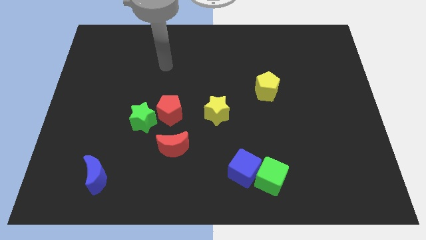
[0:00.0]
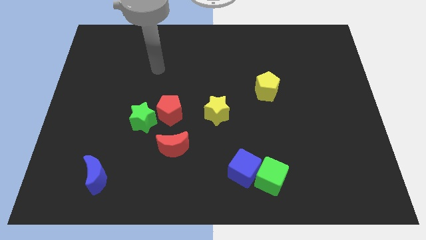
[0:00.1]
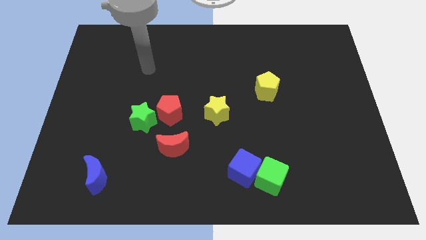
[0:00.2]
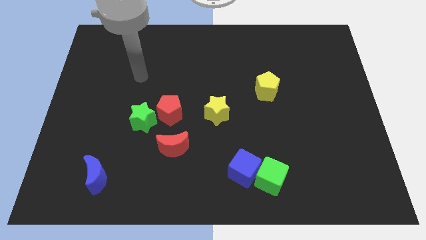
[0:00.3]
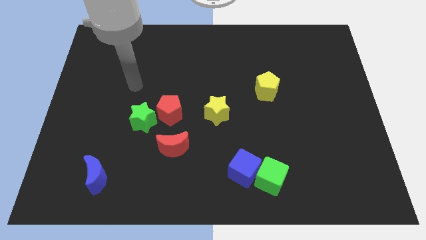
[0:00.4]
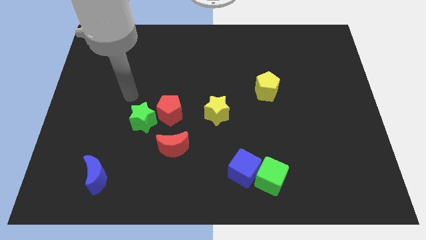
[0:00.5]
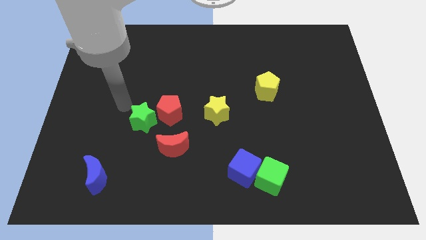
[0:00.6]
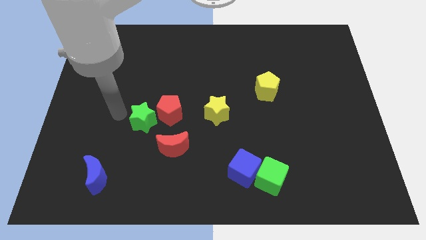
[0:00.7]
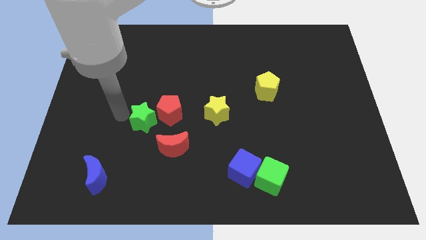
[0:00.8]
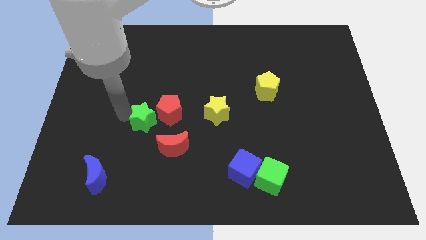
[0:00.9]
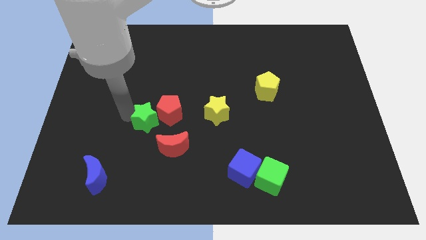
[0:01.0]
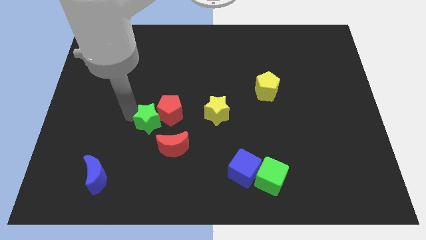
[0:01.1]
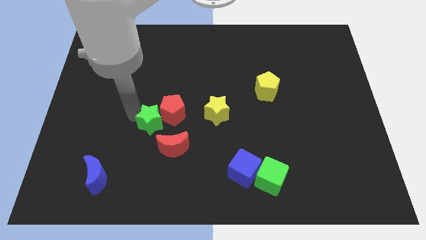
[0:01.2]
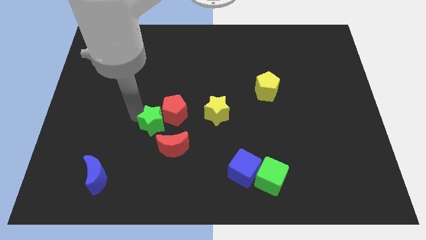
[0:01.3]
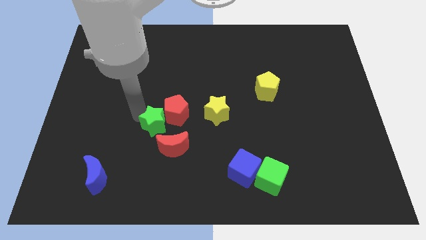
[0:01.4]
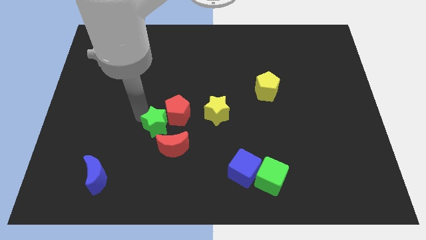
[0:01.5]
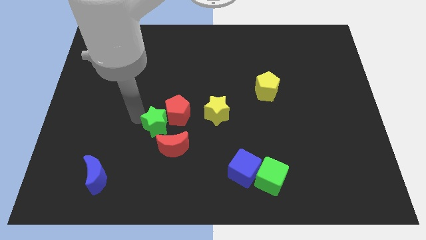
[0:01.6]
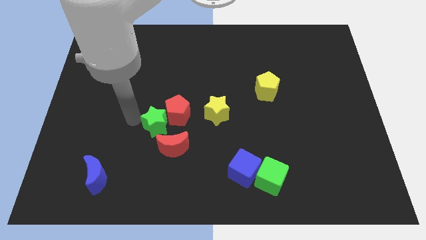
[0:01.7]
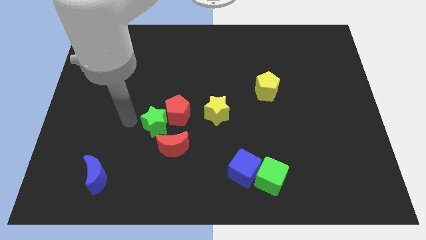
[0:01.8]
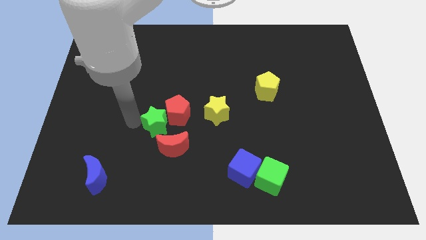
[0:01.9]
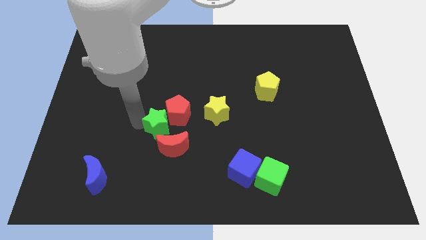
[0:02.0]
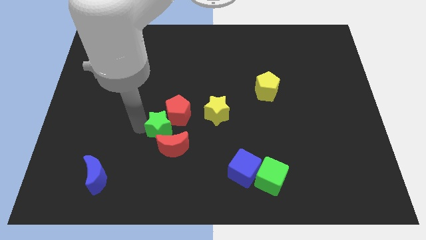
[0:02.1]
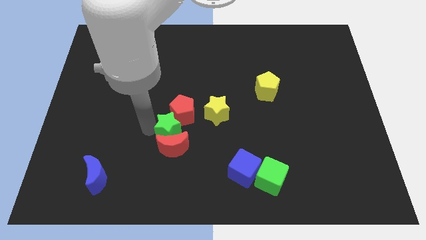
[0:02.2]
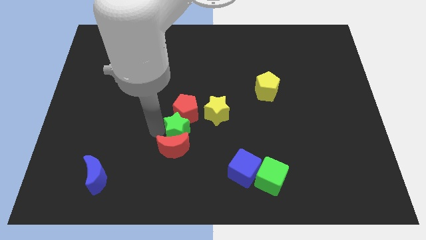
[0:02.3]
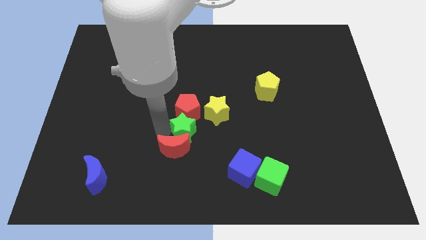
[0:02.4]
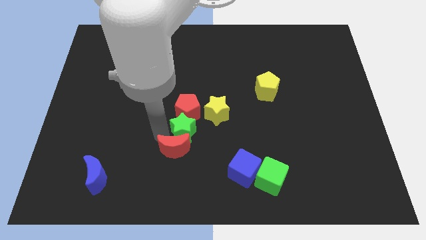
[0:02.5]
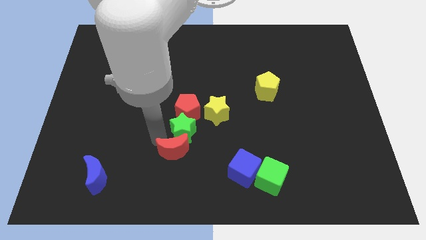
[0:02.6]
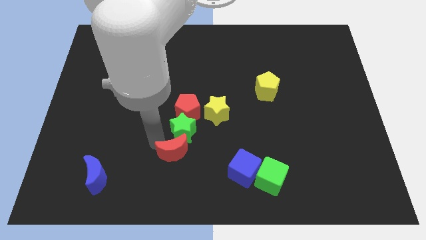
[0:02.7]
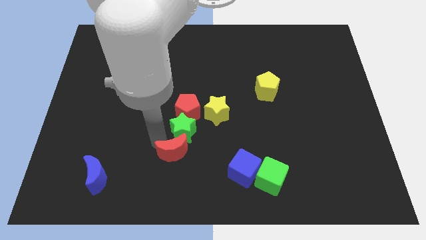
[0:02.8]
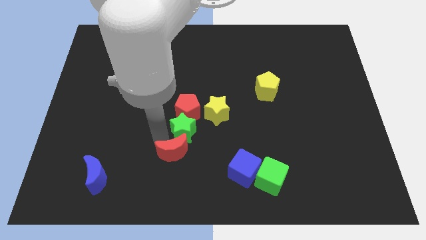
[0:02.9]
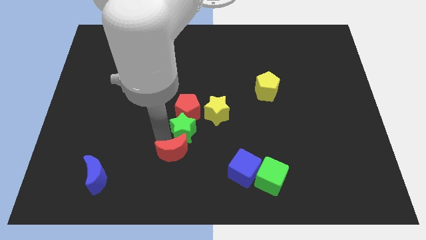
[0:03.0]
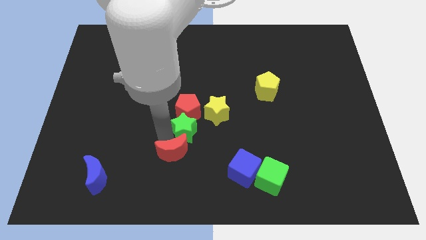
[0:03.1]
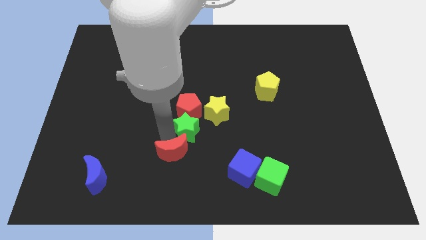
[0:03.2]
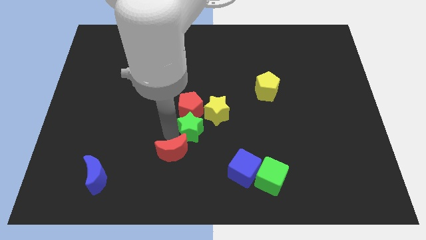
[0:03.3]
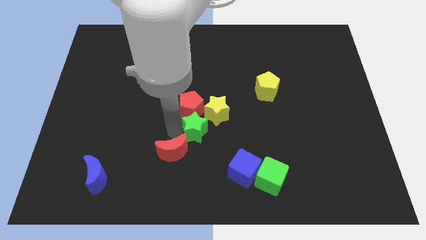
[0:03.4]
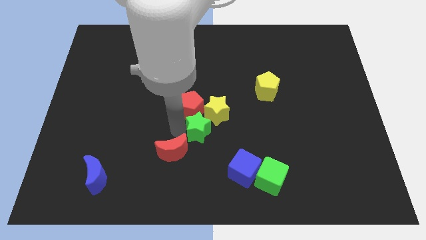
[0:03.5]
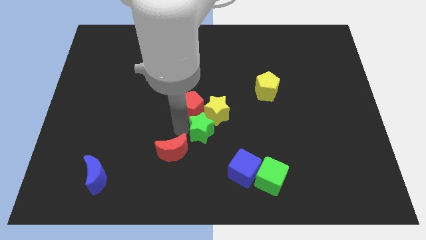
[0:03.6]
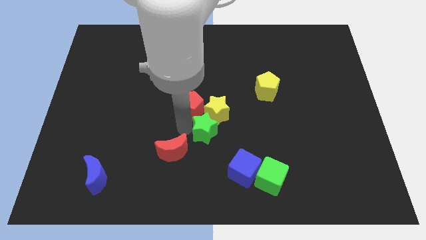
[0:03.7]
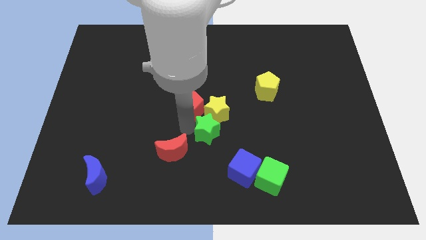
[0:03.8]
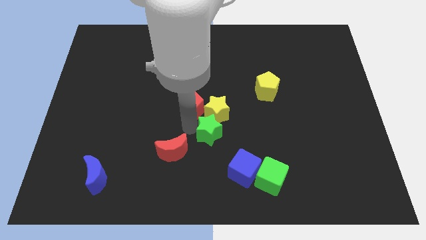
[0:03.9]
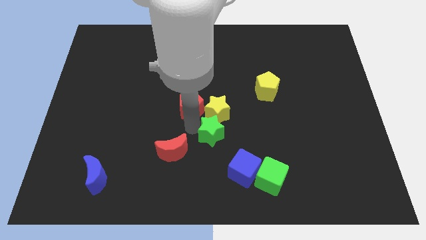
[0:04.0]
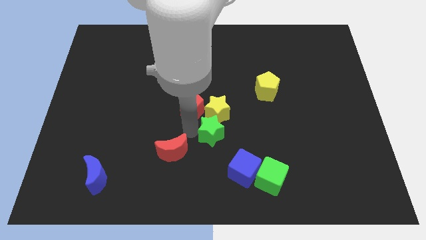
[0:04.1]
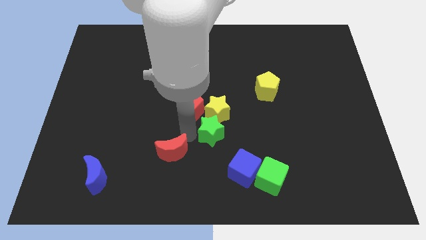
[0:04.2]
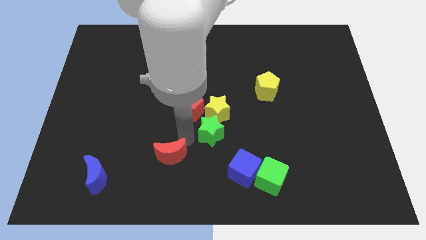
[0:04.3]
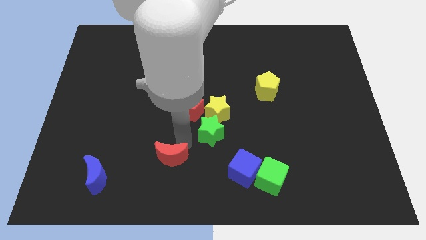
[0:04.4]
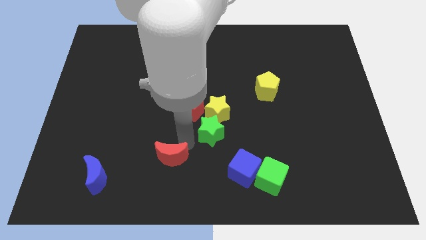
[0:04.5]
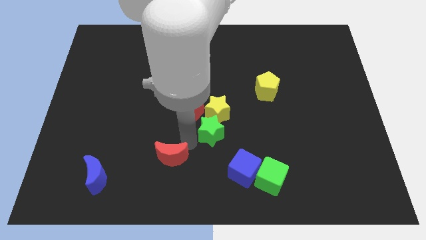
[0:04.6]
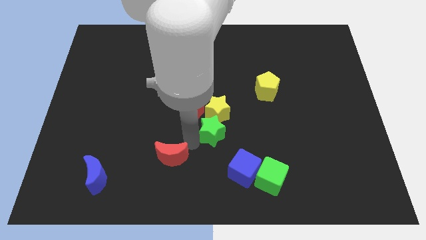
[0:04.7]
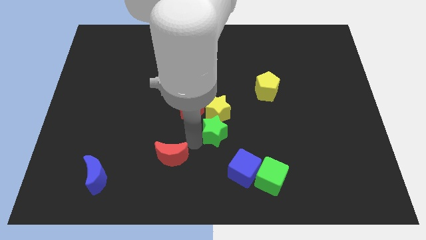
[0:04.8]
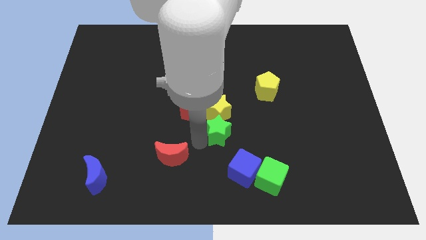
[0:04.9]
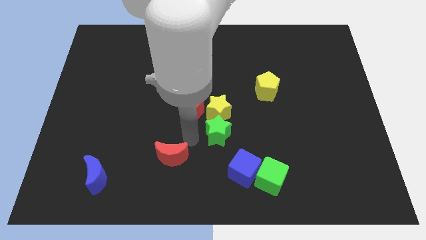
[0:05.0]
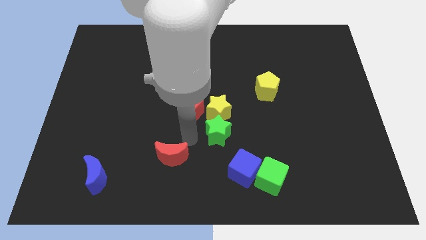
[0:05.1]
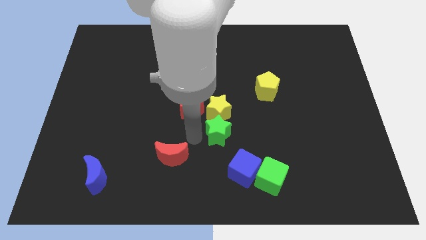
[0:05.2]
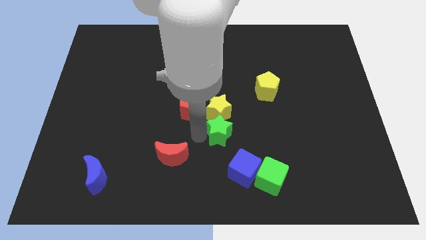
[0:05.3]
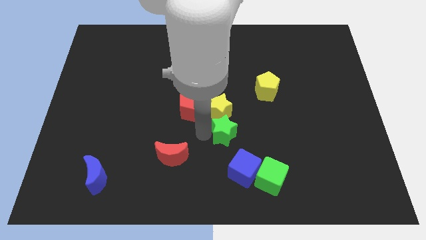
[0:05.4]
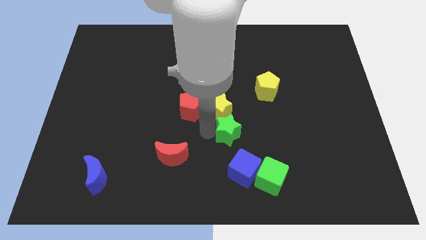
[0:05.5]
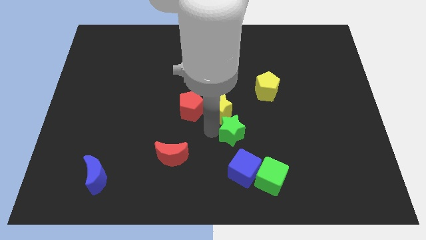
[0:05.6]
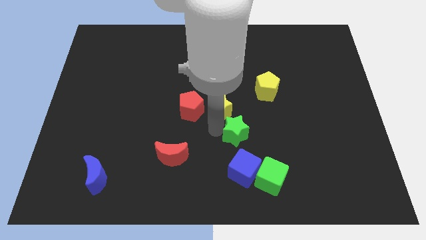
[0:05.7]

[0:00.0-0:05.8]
move the green star to the right

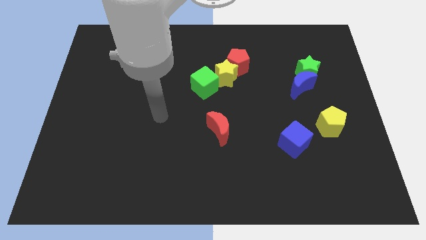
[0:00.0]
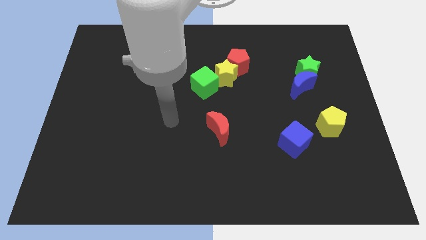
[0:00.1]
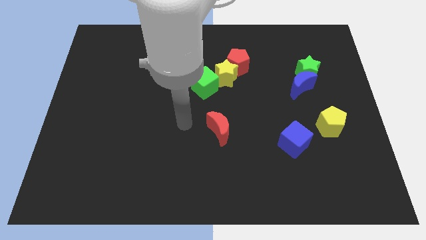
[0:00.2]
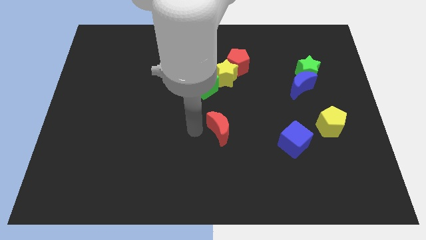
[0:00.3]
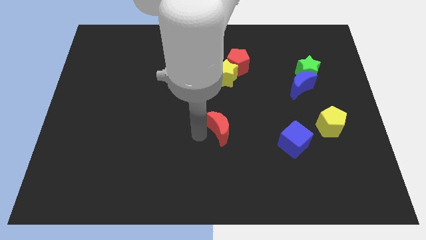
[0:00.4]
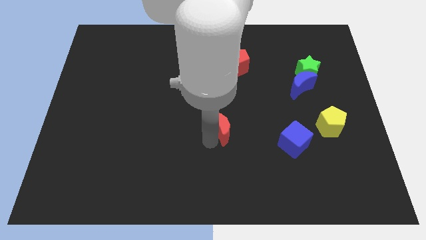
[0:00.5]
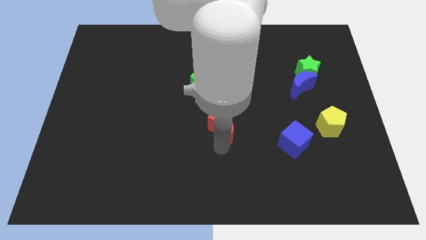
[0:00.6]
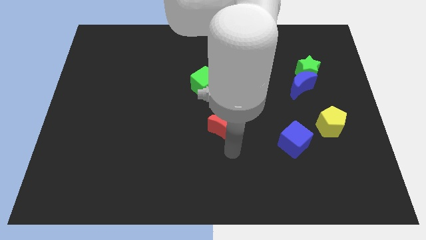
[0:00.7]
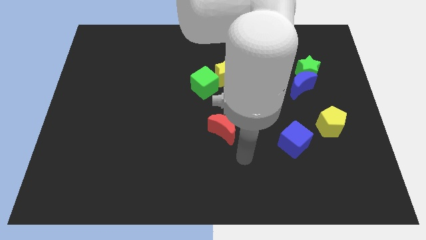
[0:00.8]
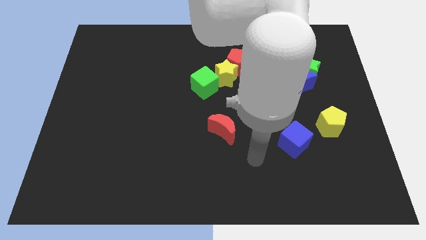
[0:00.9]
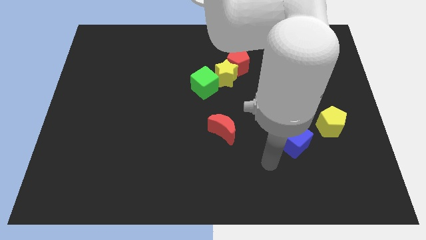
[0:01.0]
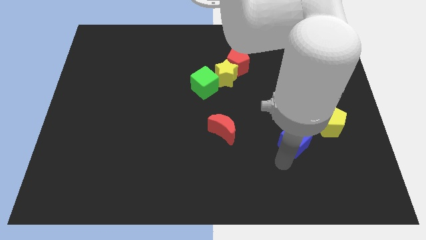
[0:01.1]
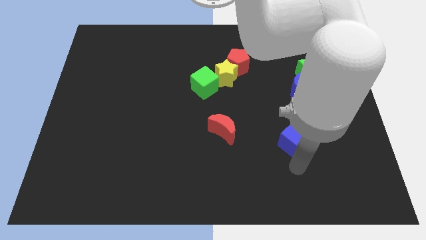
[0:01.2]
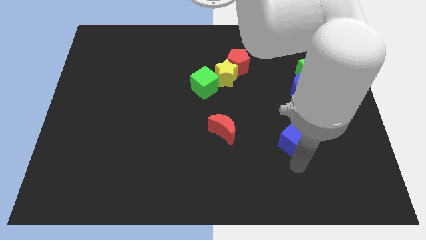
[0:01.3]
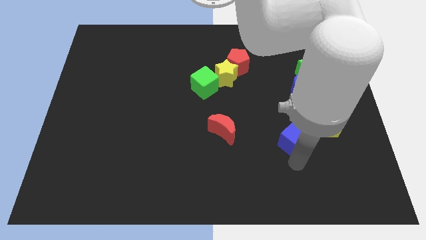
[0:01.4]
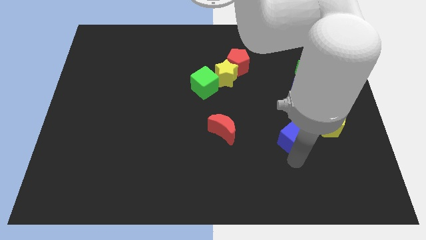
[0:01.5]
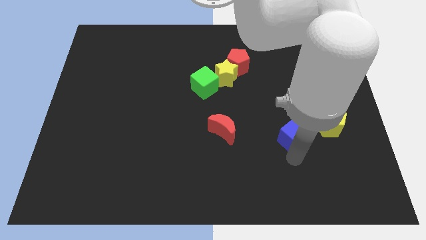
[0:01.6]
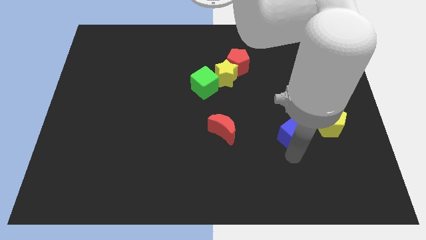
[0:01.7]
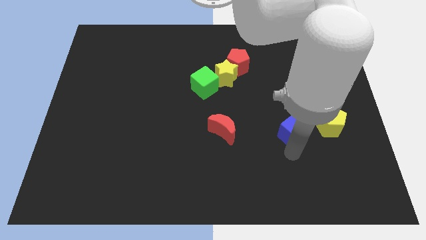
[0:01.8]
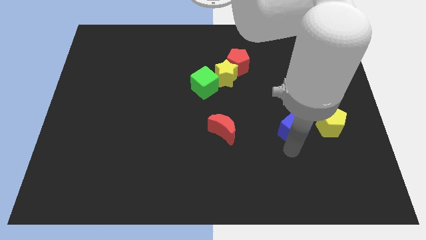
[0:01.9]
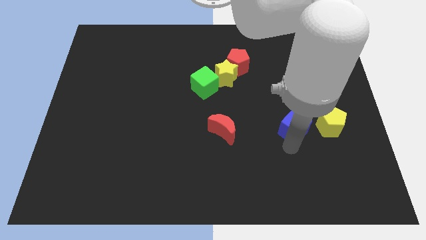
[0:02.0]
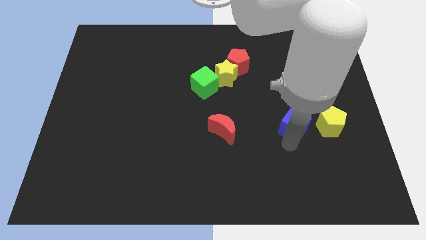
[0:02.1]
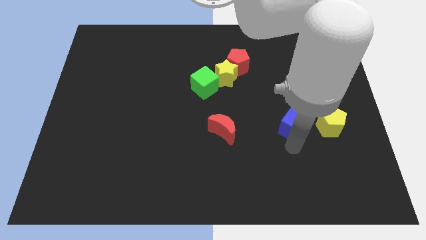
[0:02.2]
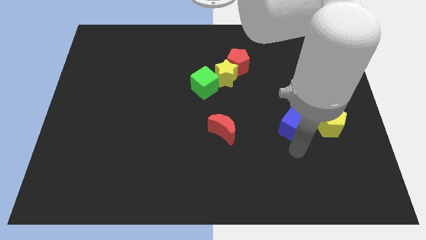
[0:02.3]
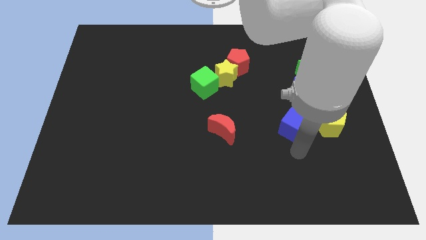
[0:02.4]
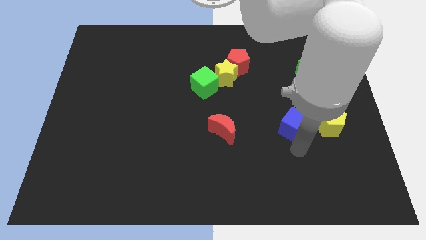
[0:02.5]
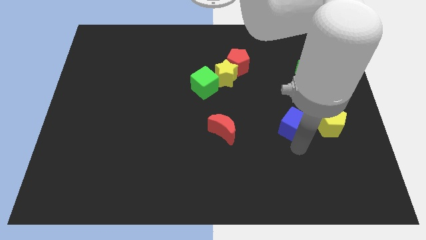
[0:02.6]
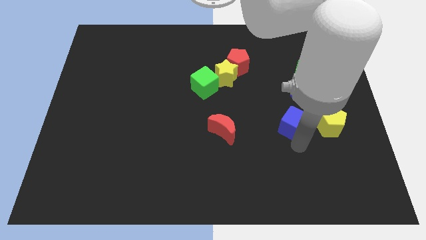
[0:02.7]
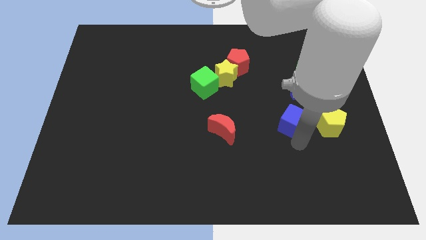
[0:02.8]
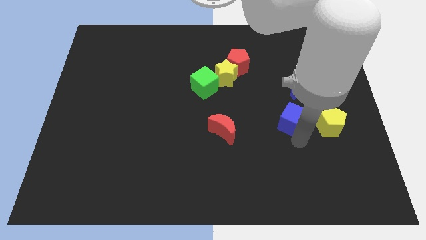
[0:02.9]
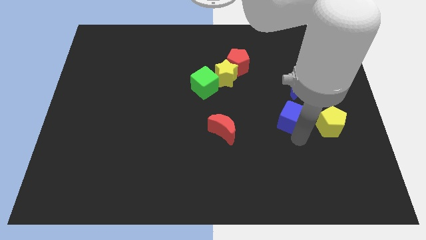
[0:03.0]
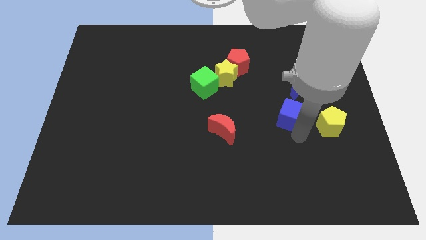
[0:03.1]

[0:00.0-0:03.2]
move the blue cube a bit up

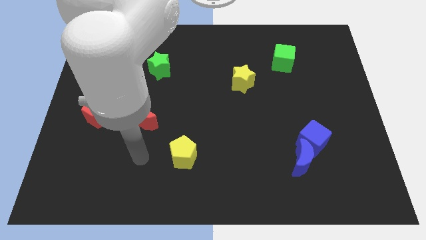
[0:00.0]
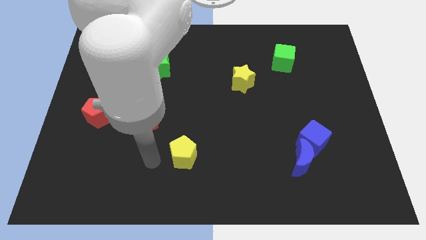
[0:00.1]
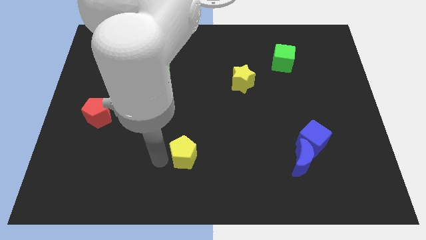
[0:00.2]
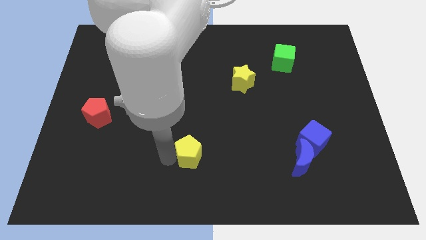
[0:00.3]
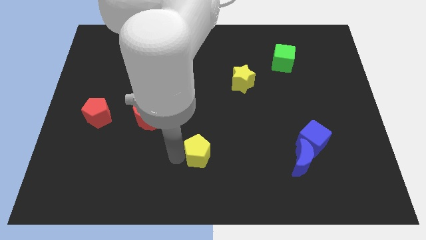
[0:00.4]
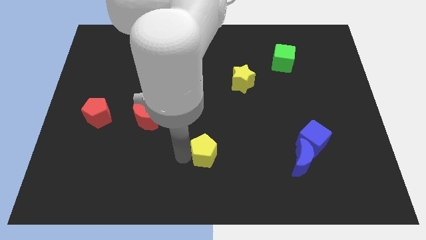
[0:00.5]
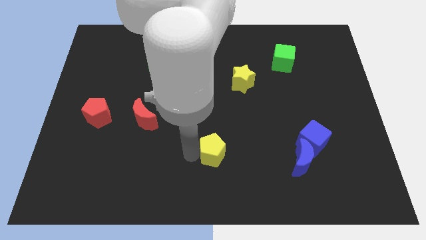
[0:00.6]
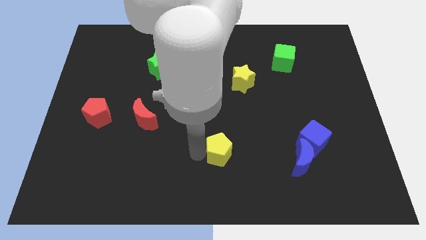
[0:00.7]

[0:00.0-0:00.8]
slide the yellow pentagon right a little
